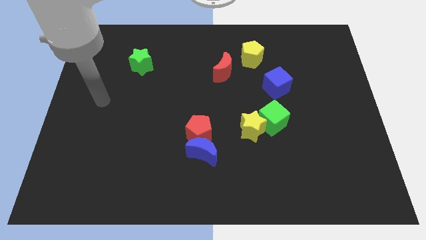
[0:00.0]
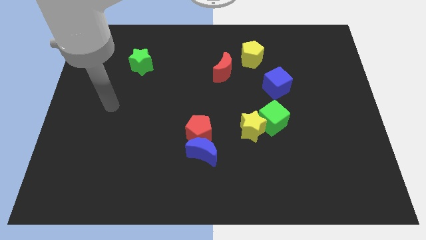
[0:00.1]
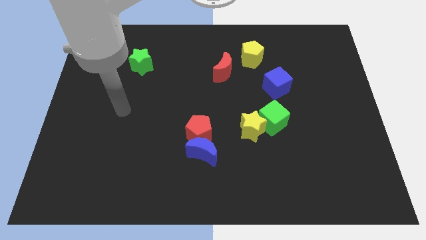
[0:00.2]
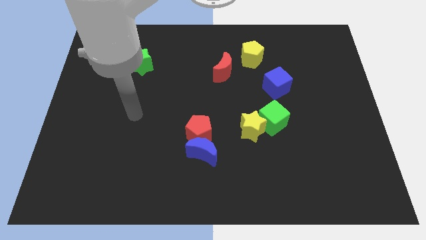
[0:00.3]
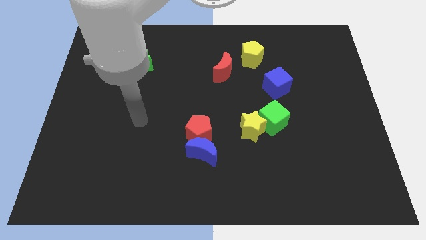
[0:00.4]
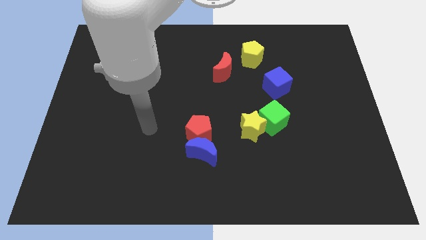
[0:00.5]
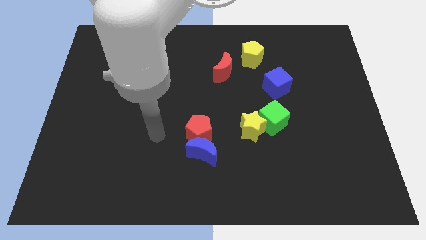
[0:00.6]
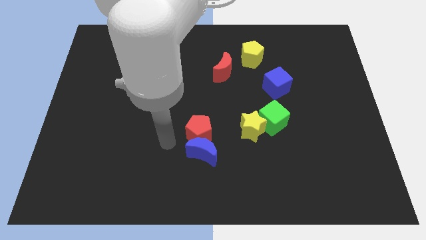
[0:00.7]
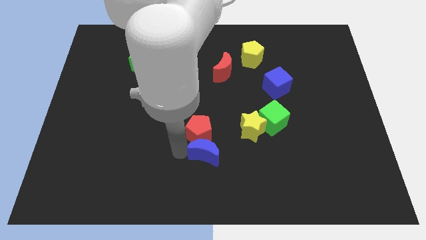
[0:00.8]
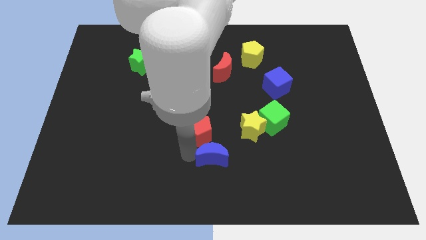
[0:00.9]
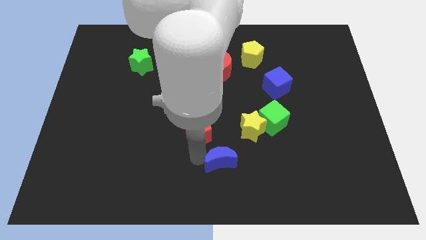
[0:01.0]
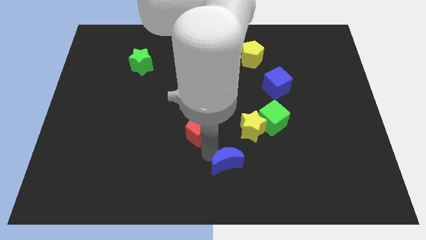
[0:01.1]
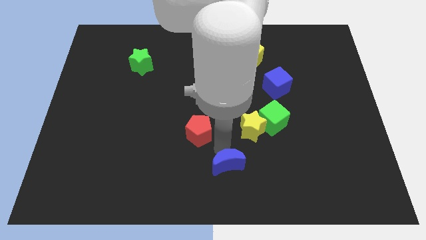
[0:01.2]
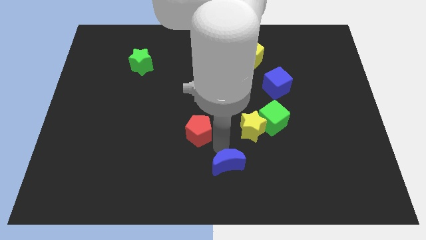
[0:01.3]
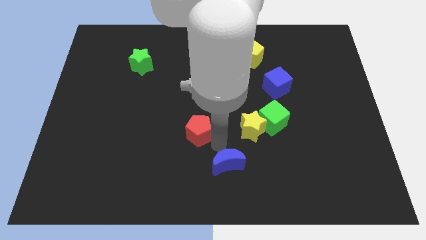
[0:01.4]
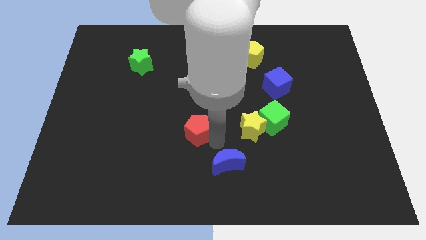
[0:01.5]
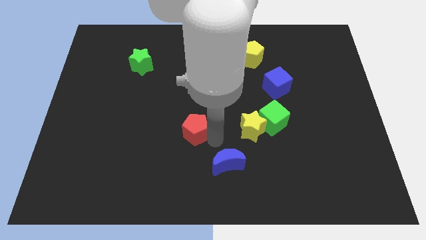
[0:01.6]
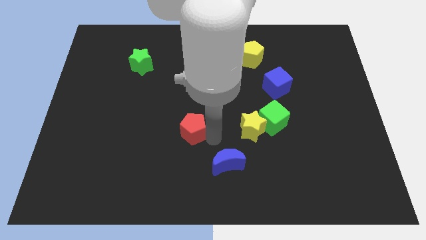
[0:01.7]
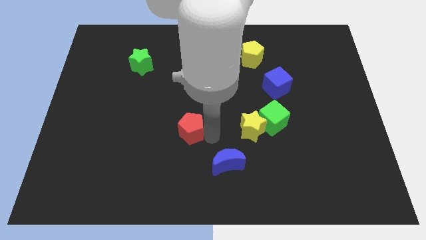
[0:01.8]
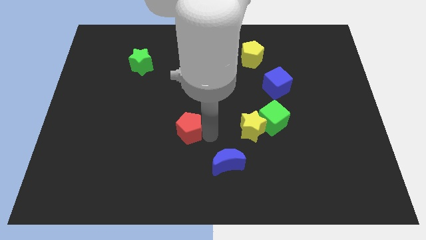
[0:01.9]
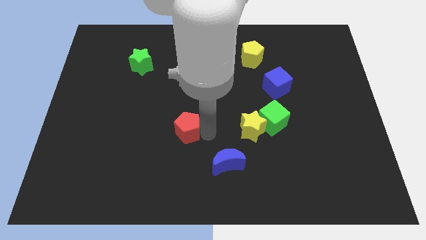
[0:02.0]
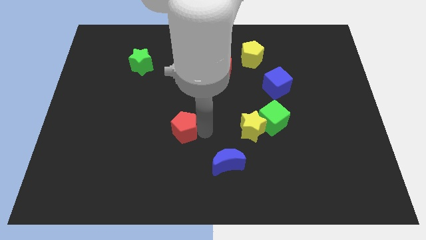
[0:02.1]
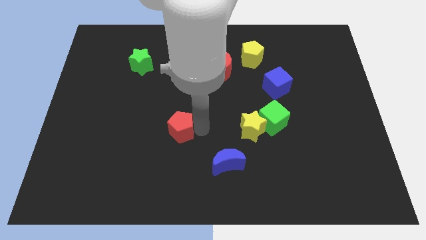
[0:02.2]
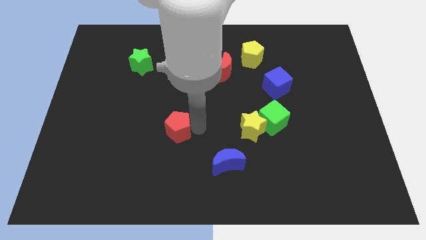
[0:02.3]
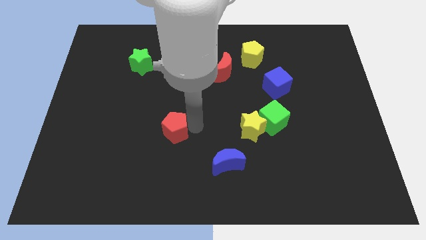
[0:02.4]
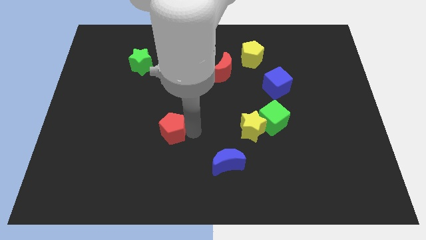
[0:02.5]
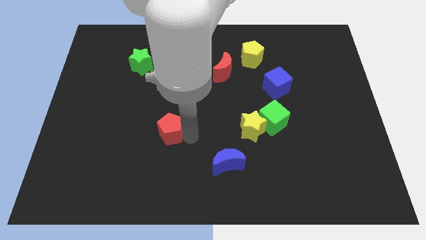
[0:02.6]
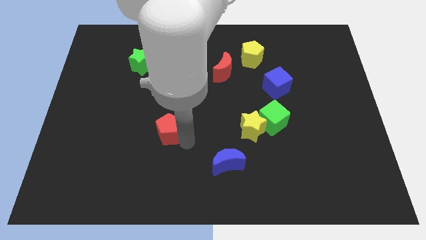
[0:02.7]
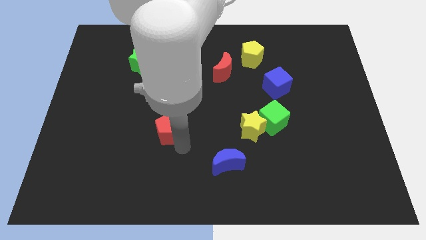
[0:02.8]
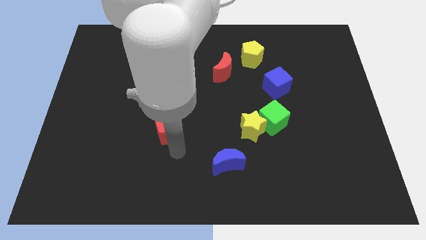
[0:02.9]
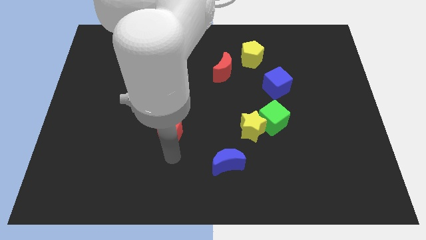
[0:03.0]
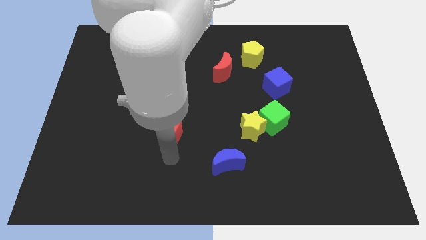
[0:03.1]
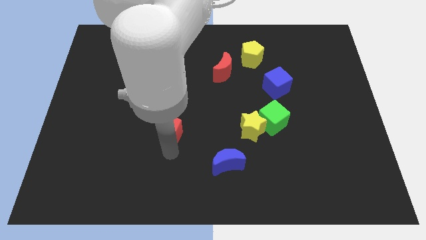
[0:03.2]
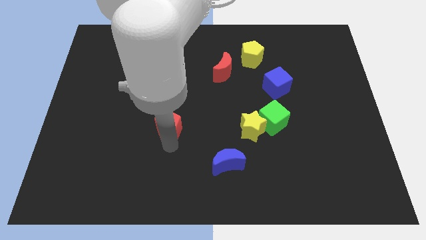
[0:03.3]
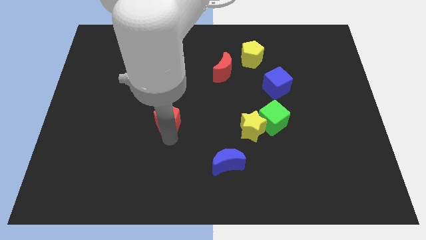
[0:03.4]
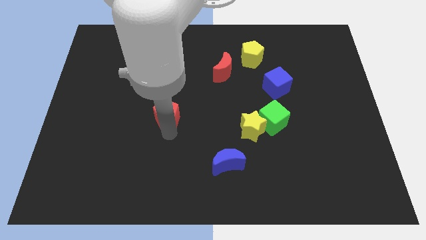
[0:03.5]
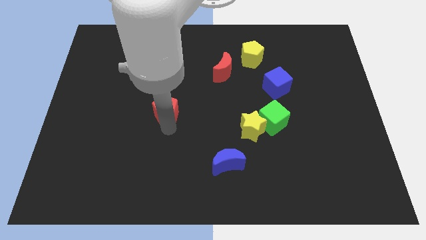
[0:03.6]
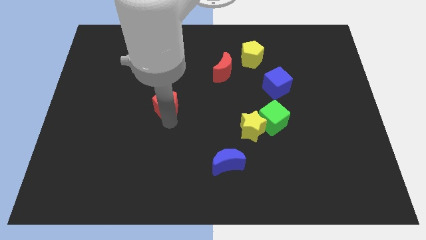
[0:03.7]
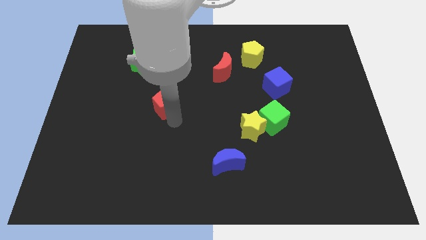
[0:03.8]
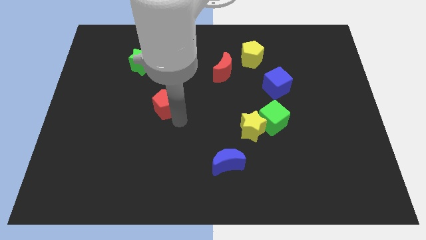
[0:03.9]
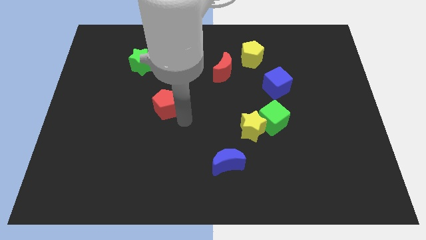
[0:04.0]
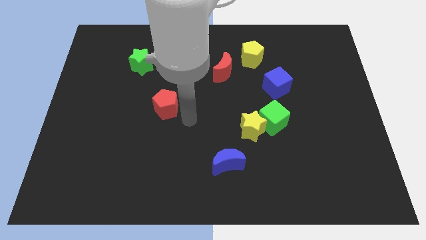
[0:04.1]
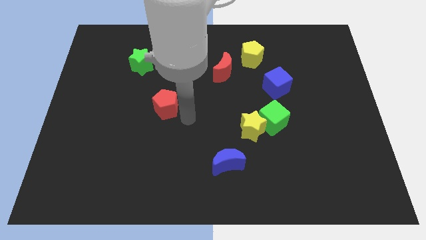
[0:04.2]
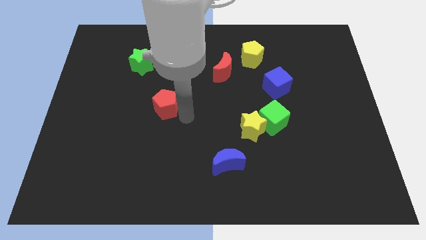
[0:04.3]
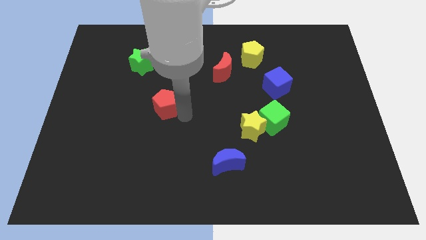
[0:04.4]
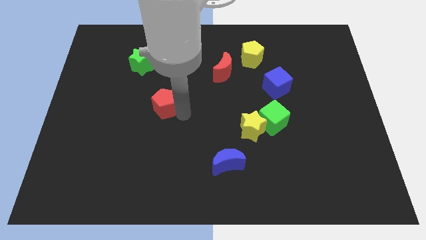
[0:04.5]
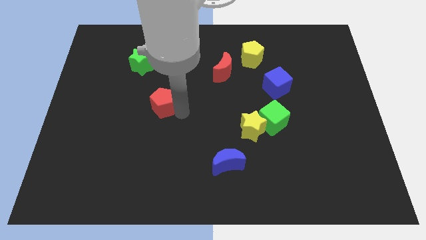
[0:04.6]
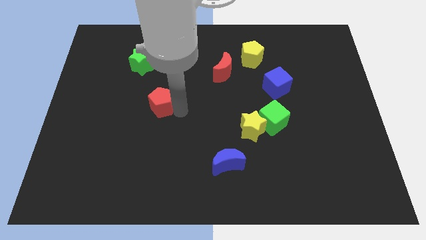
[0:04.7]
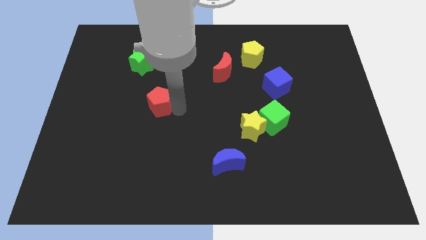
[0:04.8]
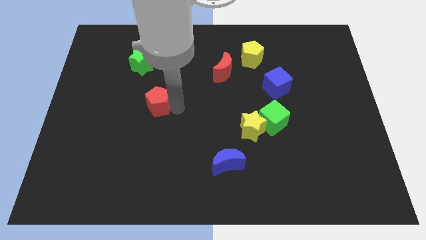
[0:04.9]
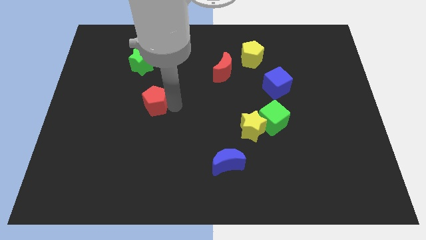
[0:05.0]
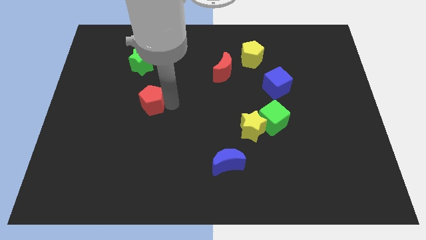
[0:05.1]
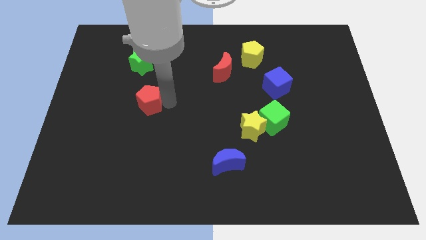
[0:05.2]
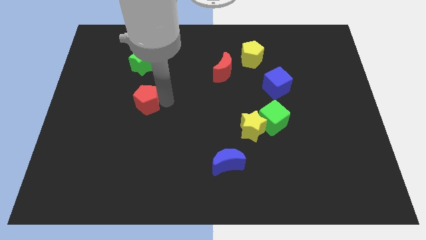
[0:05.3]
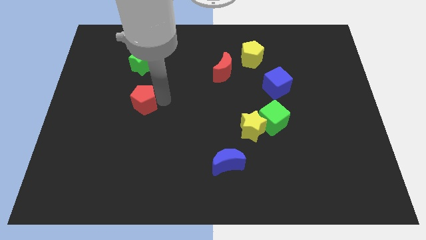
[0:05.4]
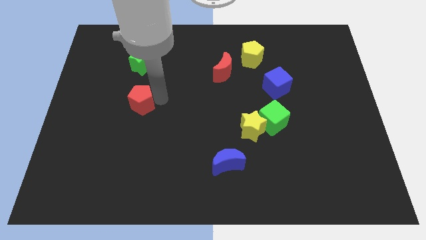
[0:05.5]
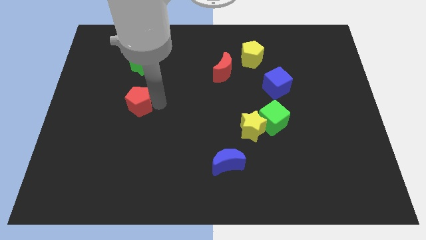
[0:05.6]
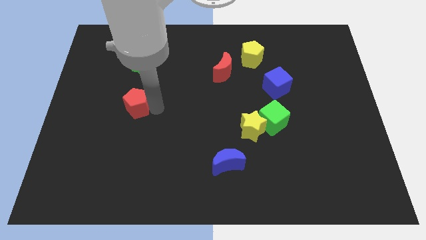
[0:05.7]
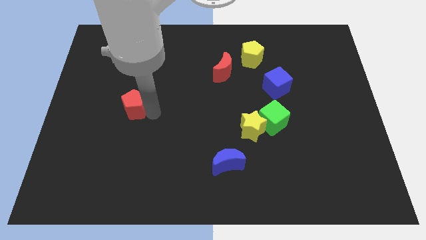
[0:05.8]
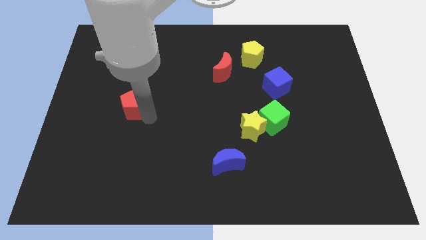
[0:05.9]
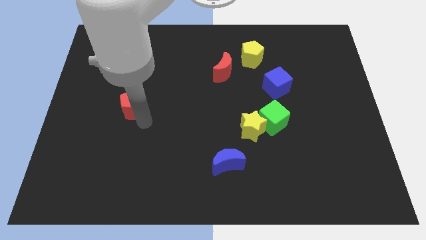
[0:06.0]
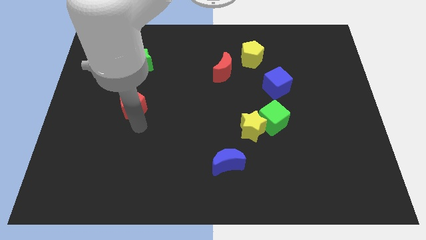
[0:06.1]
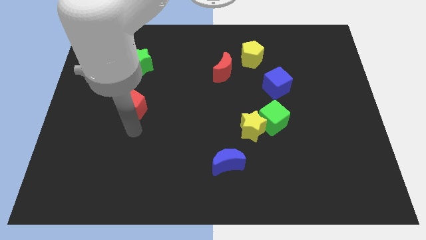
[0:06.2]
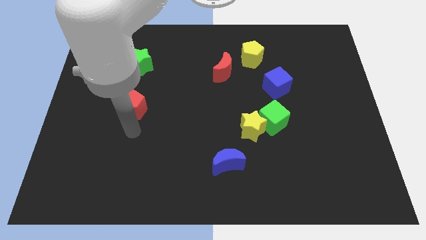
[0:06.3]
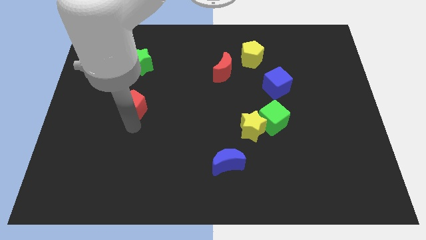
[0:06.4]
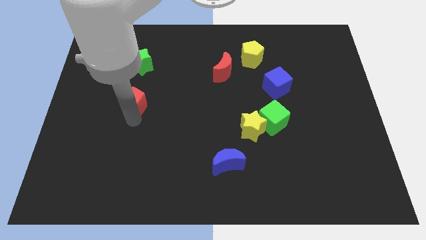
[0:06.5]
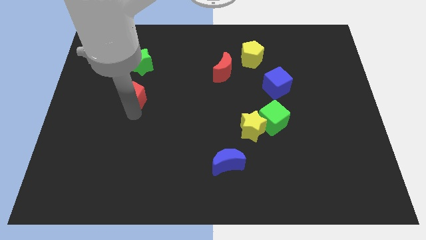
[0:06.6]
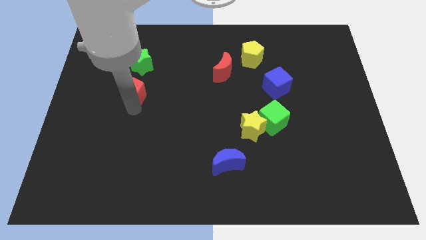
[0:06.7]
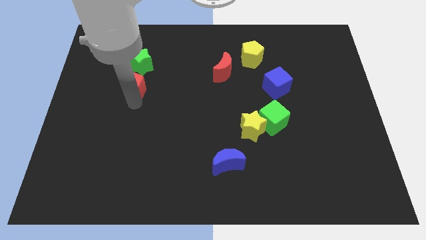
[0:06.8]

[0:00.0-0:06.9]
push the red pentagon up and to the left diagonally

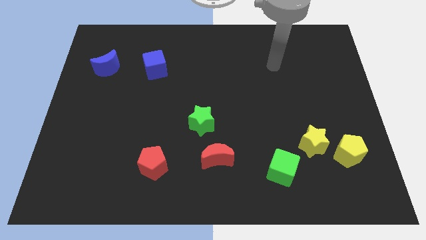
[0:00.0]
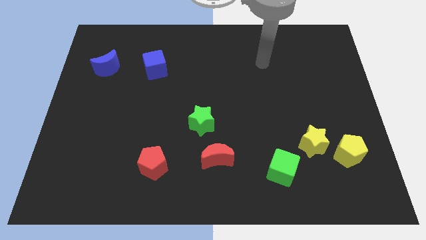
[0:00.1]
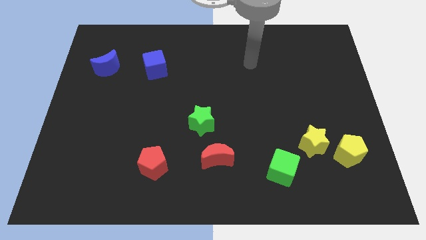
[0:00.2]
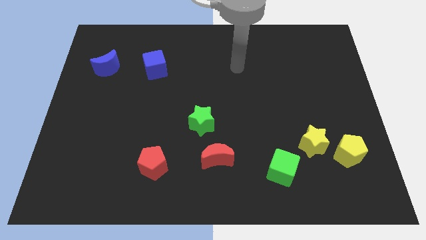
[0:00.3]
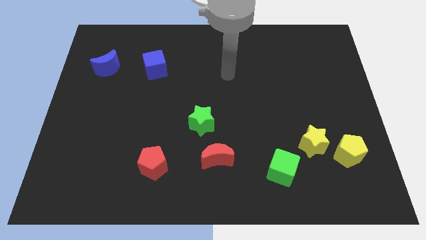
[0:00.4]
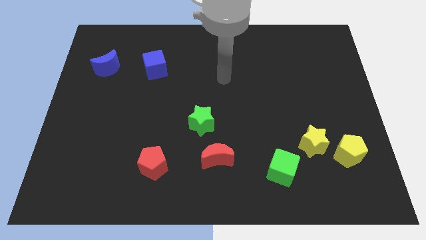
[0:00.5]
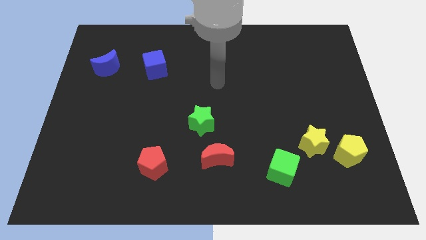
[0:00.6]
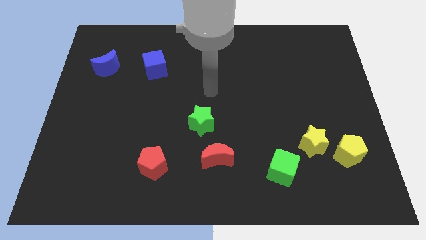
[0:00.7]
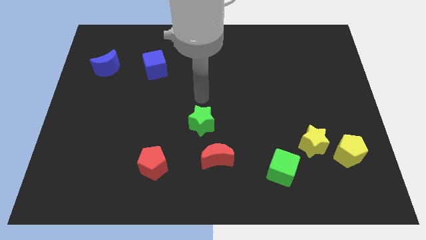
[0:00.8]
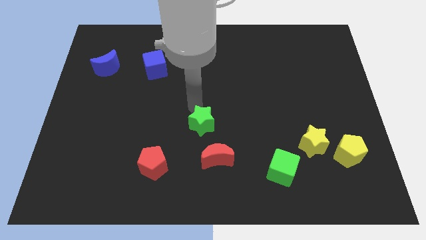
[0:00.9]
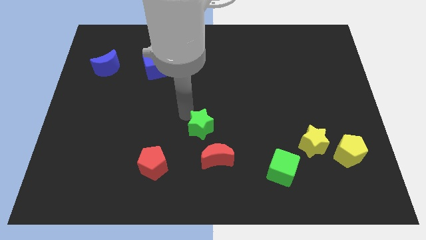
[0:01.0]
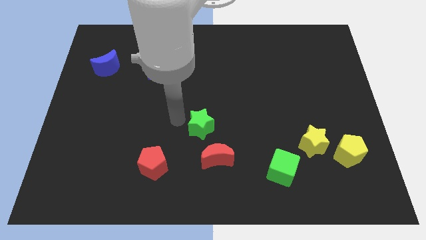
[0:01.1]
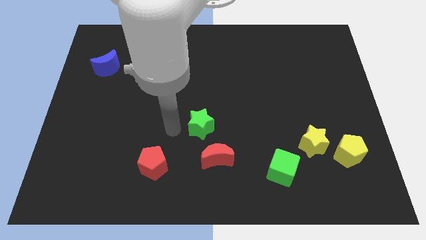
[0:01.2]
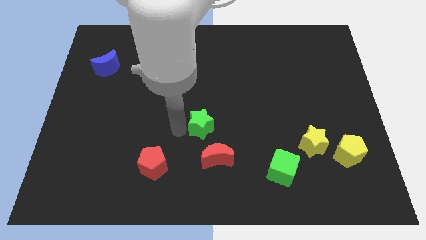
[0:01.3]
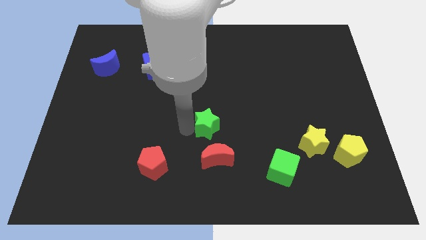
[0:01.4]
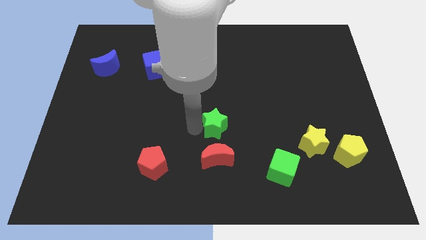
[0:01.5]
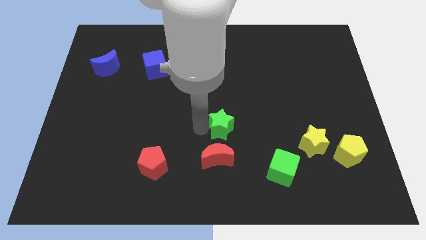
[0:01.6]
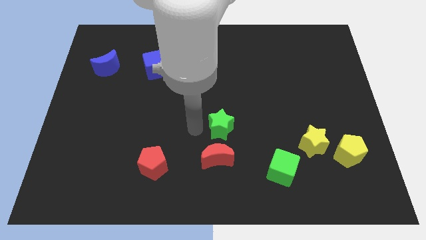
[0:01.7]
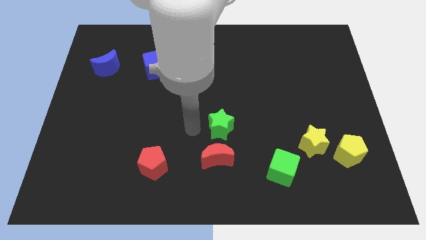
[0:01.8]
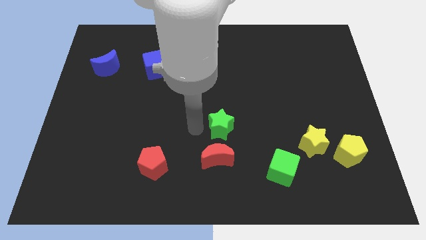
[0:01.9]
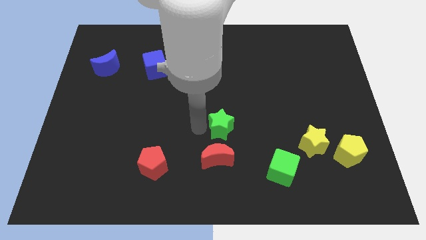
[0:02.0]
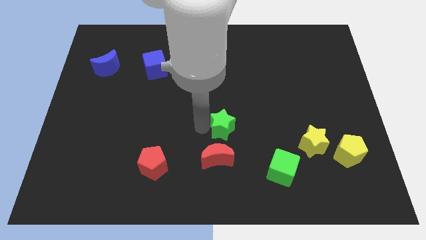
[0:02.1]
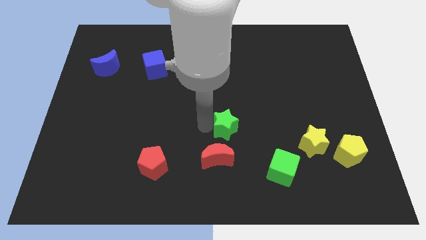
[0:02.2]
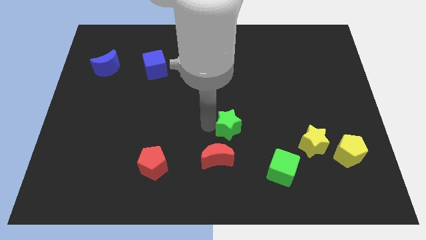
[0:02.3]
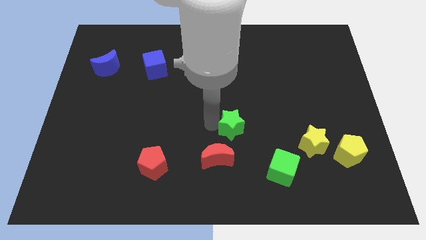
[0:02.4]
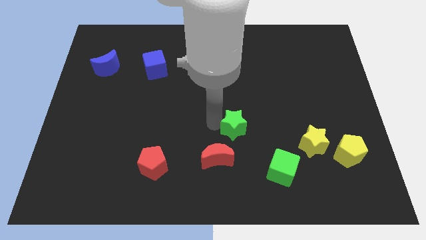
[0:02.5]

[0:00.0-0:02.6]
slightly push the green star to the right
